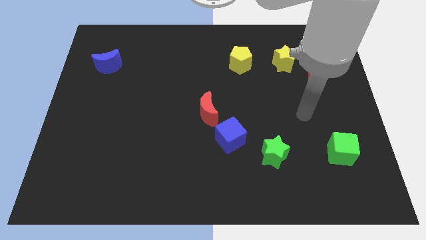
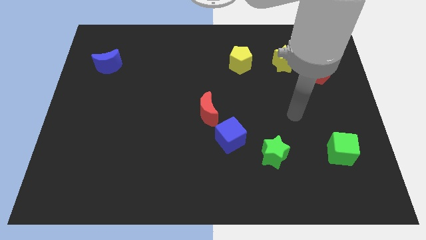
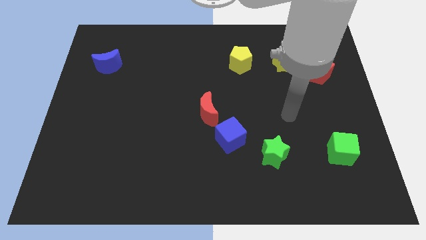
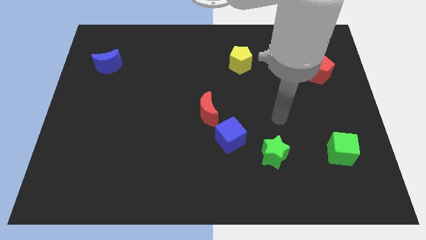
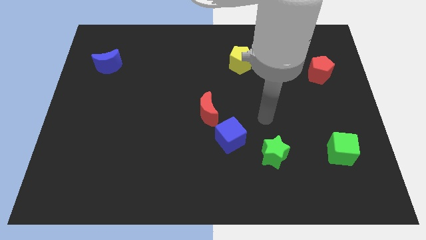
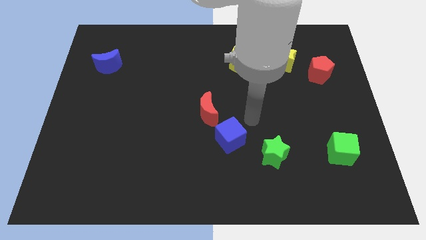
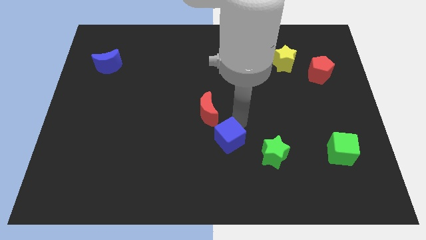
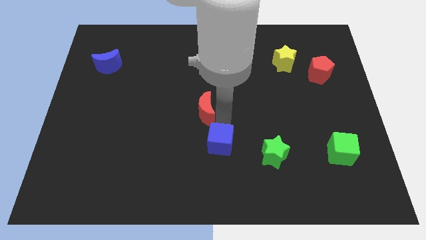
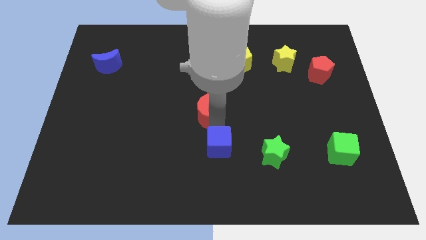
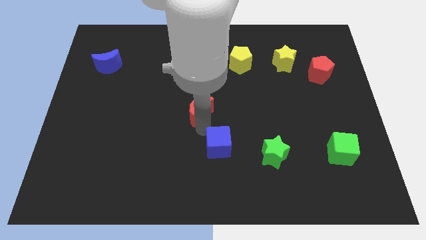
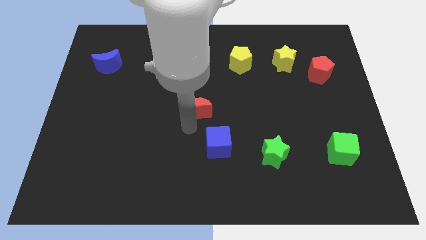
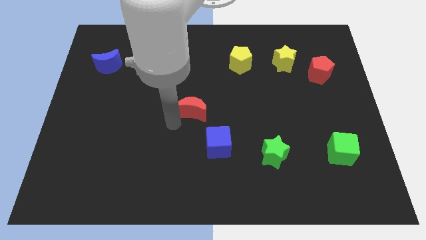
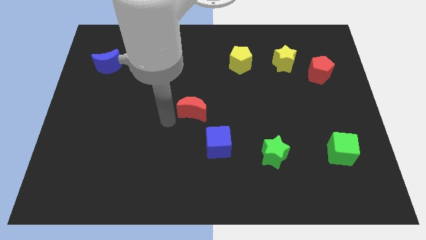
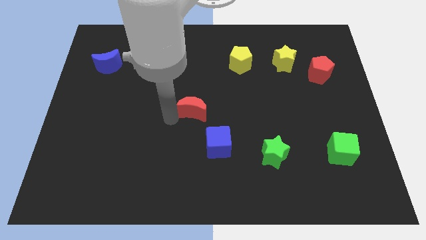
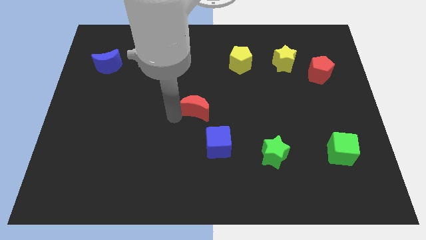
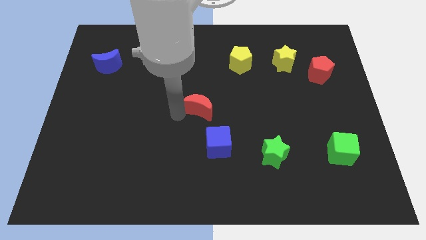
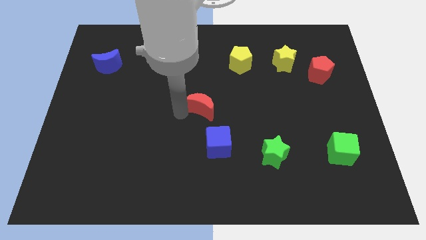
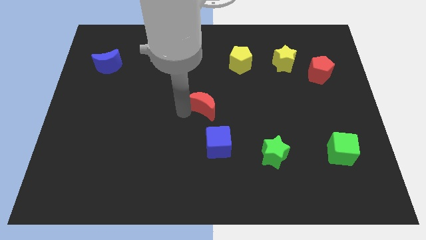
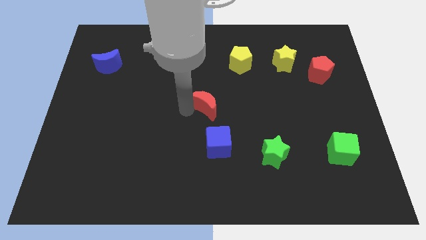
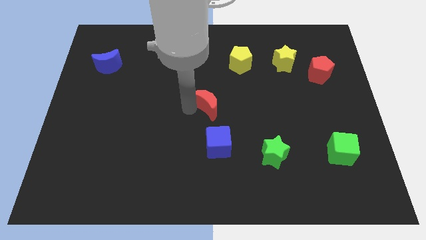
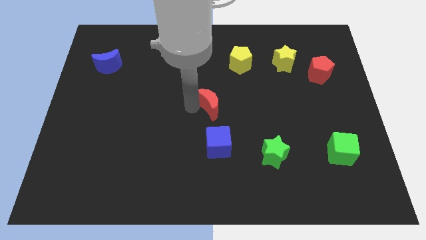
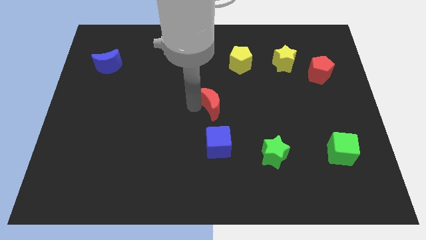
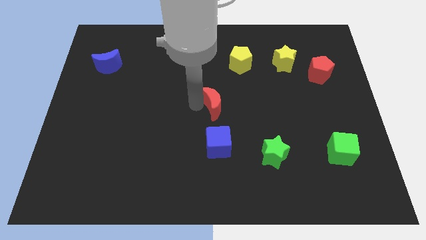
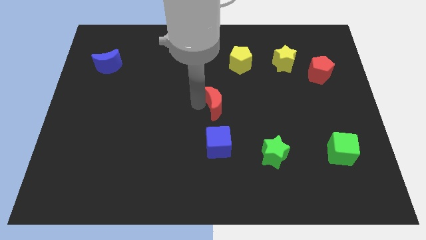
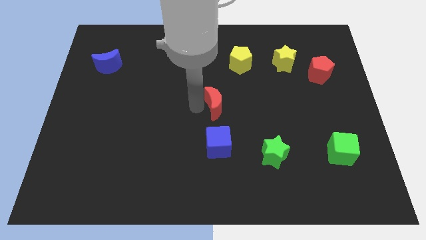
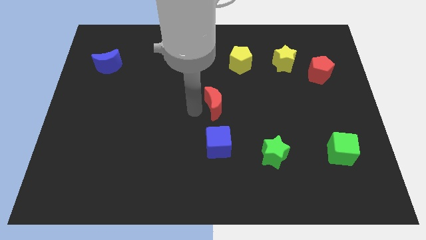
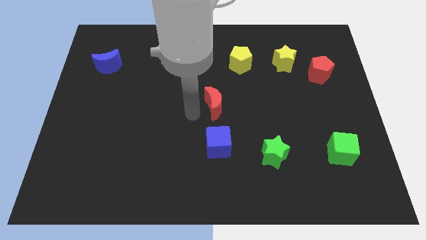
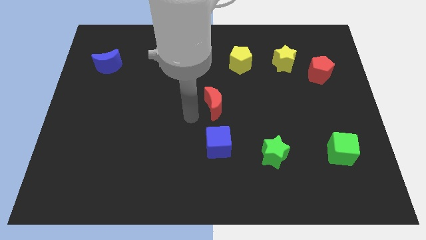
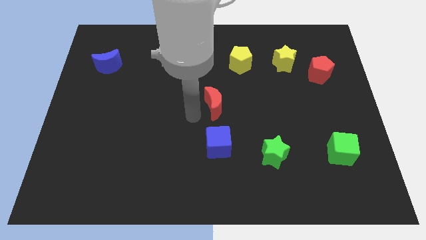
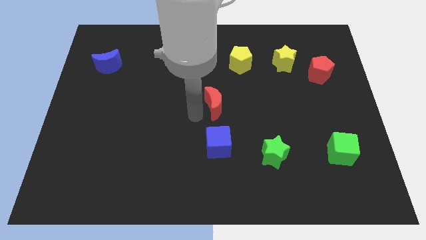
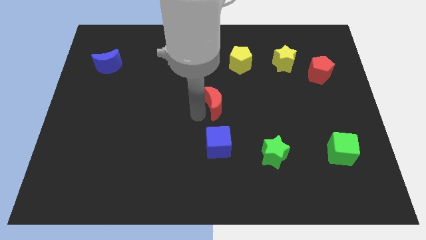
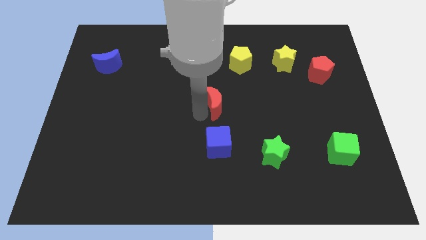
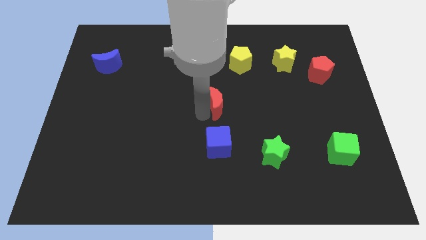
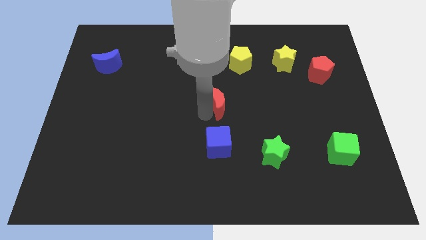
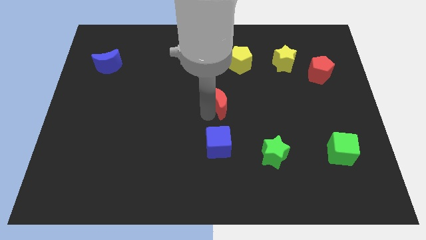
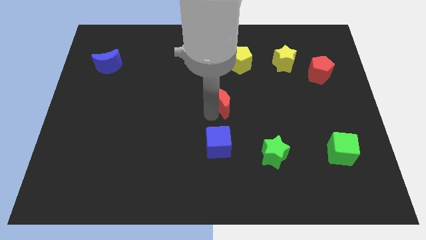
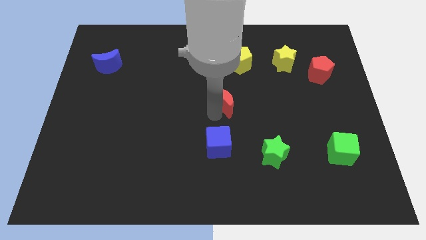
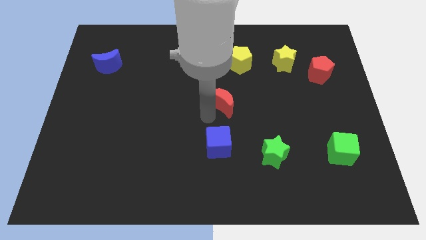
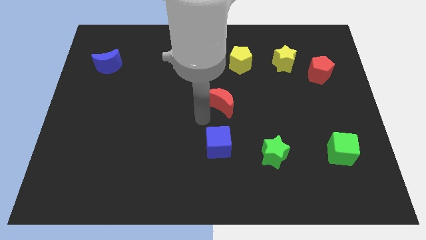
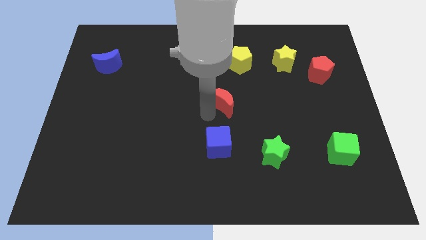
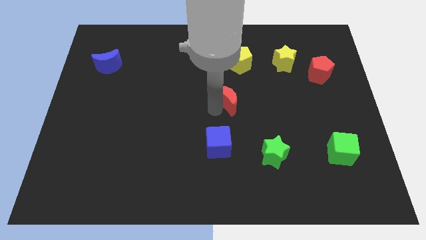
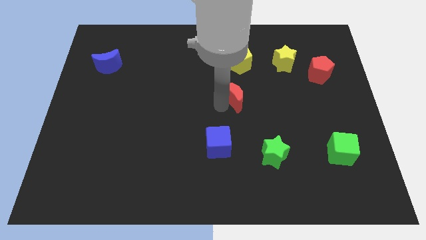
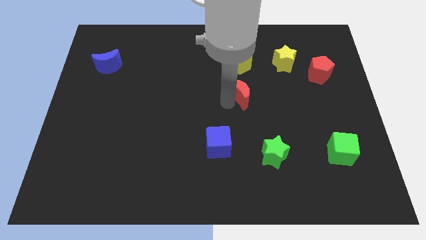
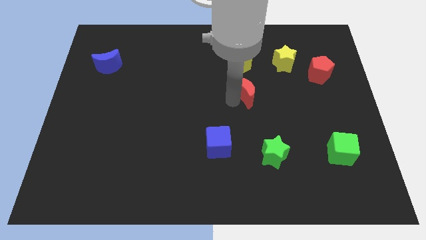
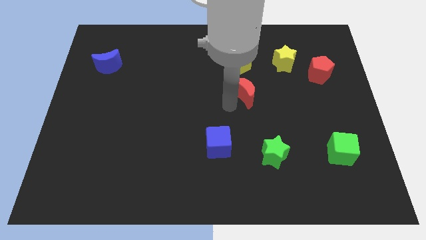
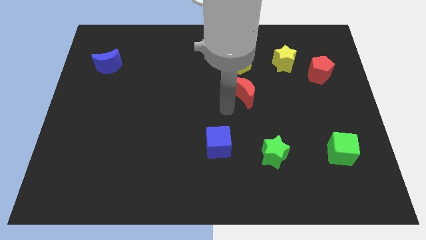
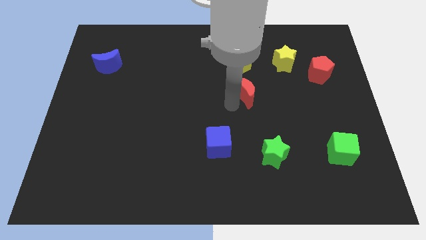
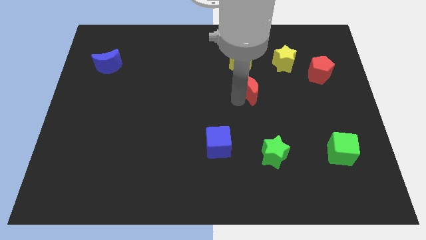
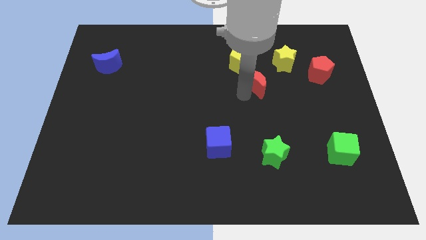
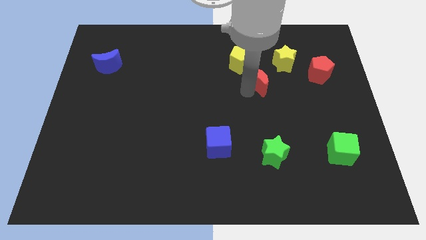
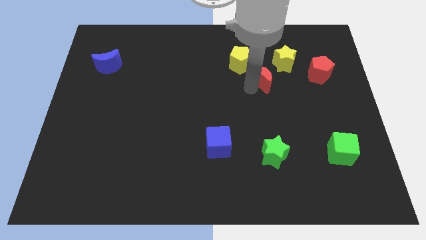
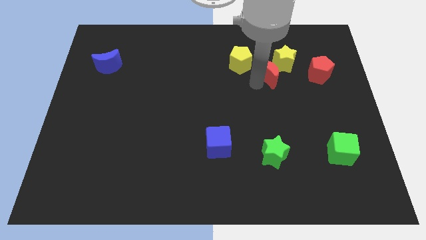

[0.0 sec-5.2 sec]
slide the red moon next to the yellow star

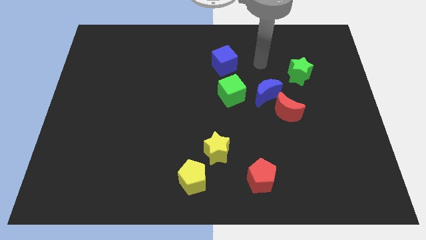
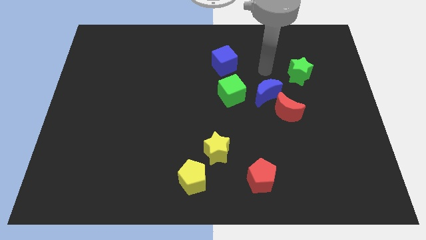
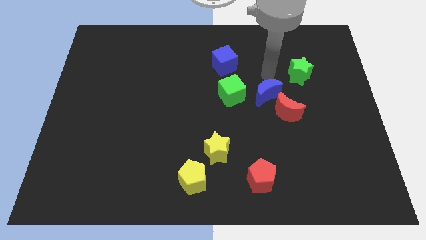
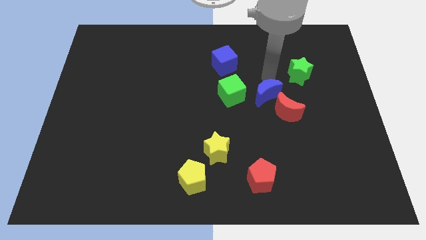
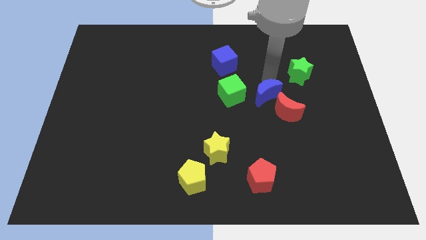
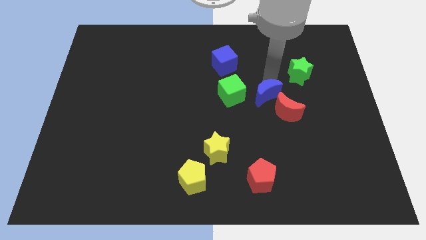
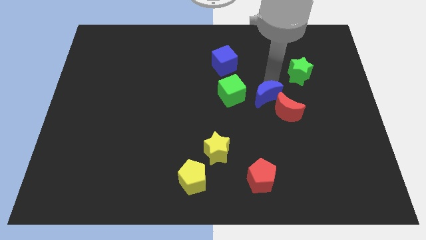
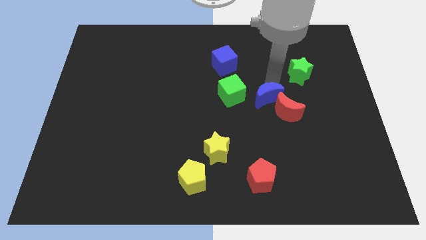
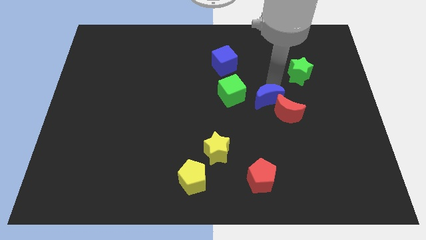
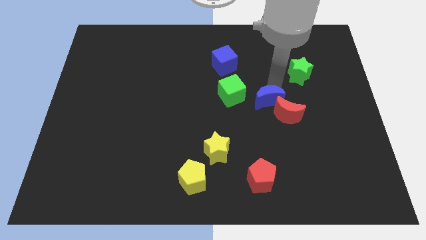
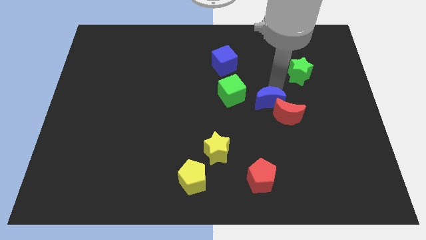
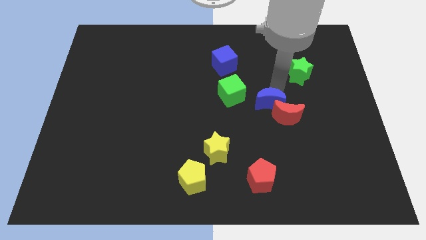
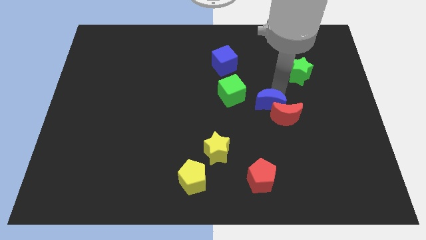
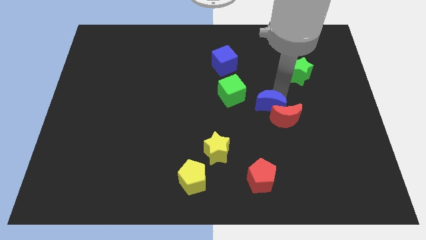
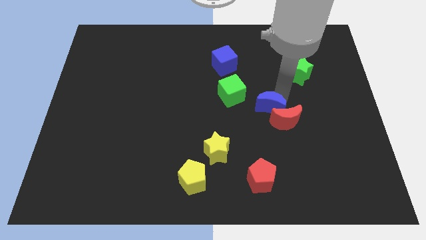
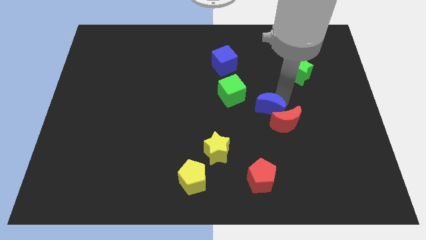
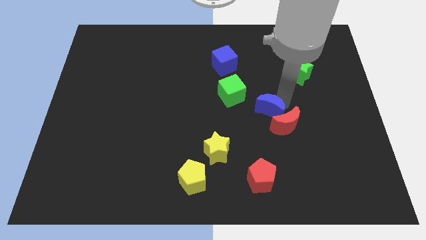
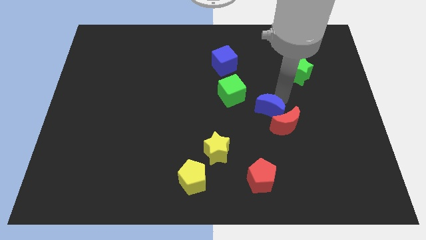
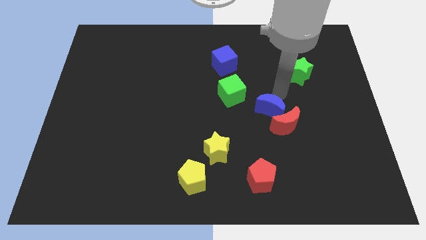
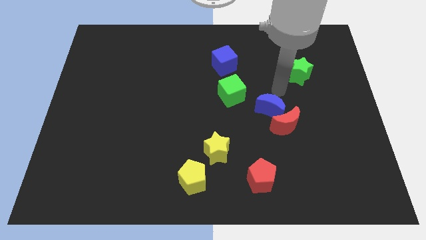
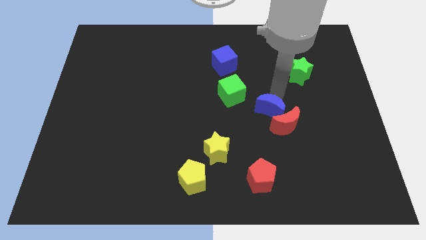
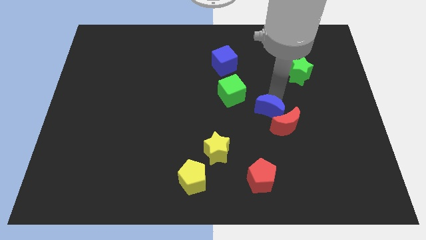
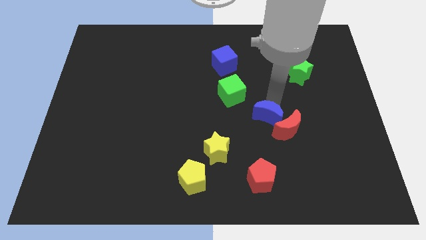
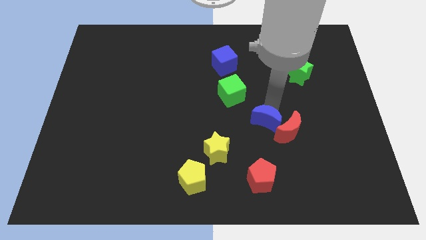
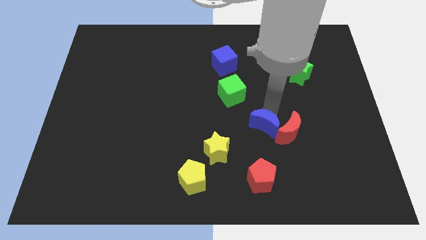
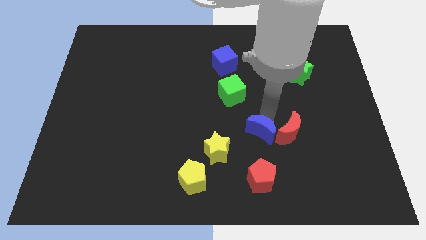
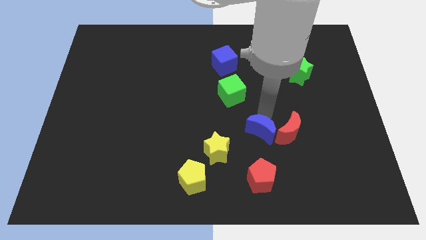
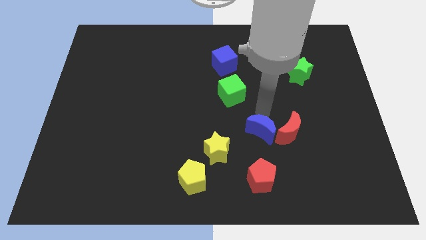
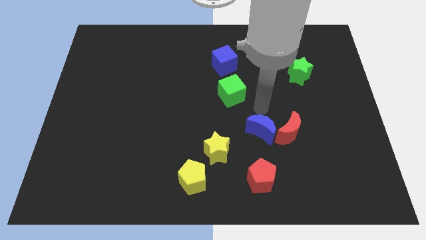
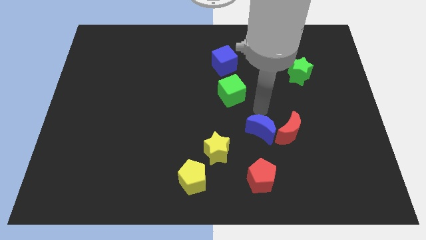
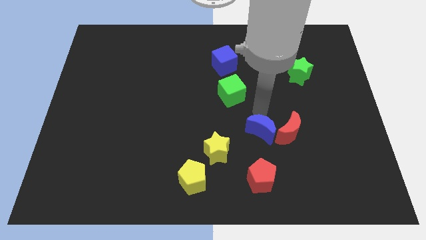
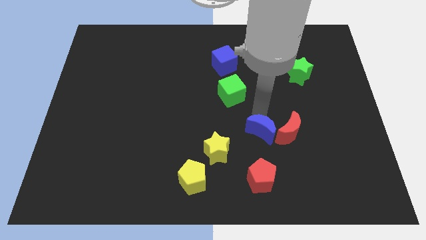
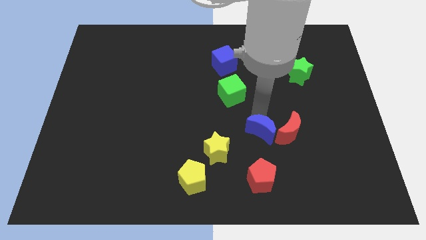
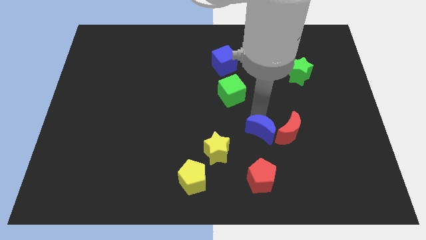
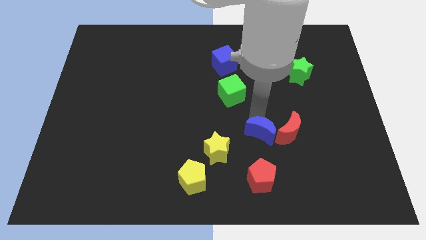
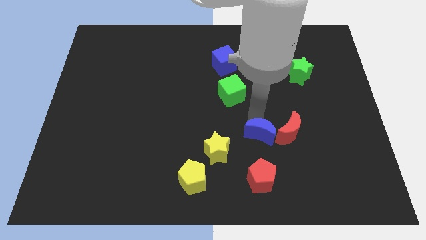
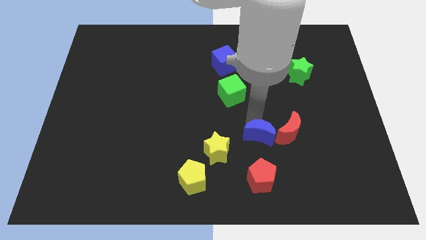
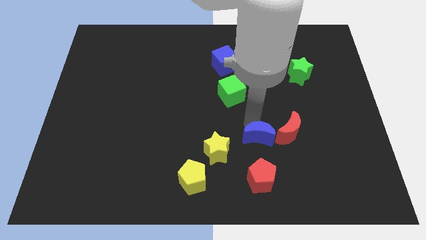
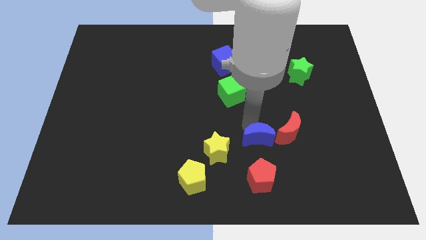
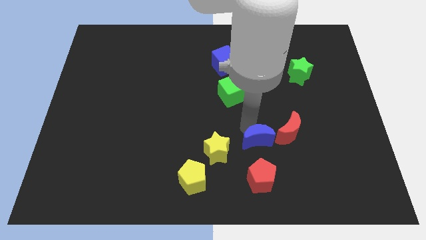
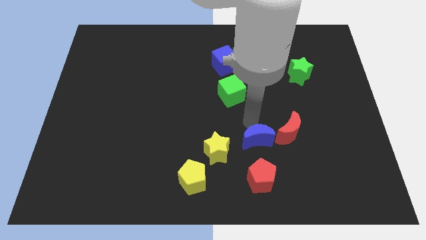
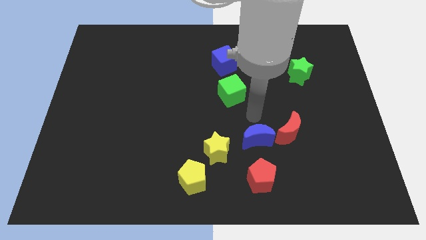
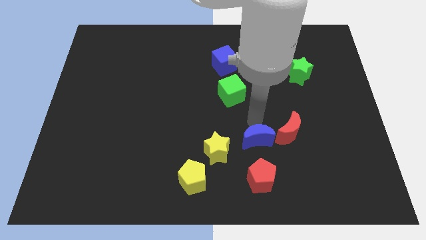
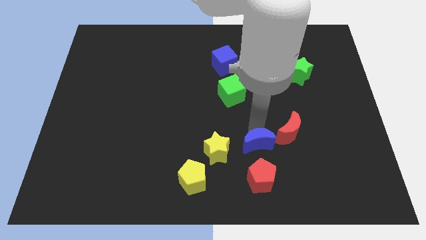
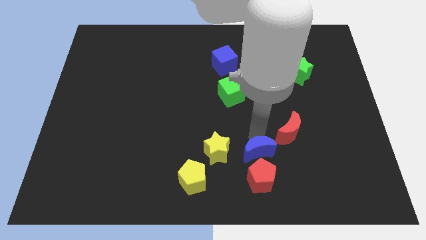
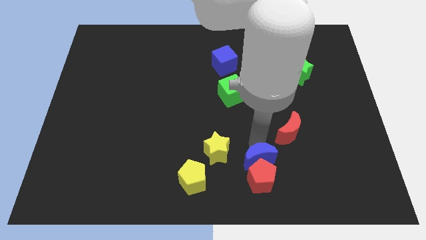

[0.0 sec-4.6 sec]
move the blue moon towards the red pentagon
